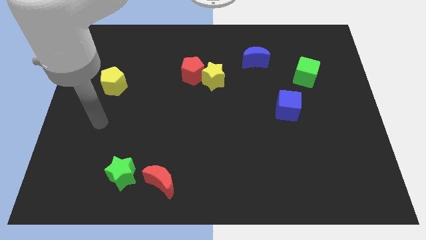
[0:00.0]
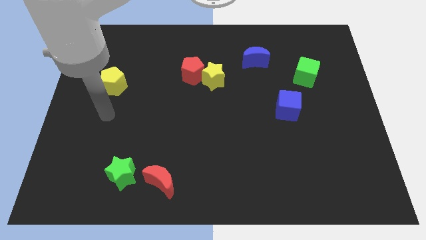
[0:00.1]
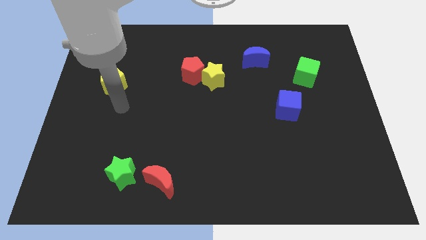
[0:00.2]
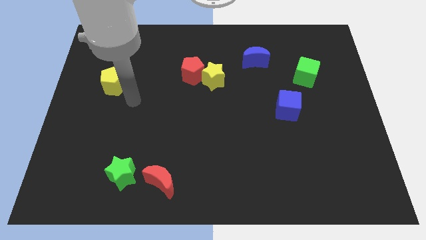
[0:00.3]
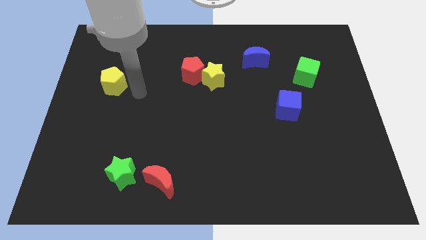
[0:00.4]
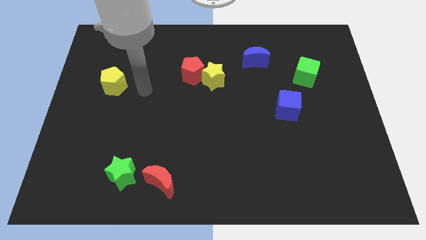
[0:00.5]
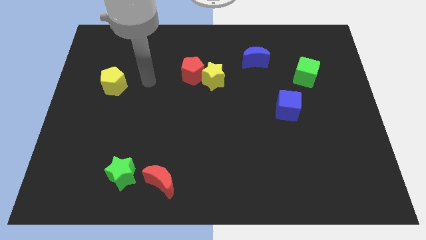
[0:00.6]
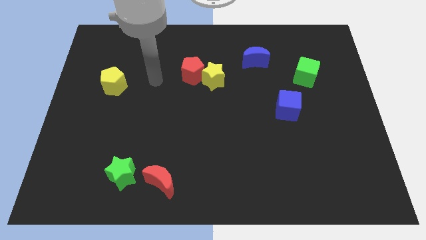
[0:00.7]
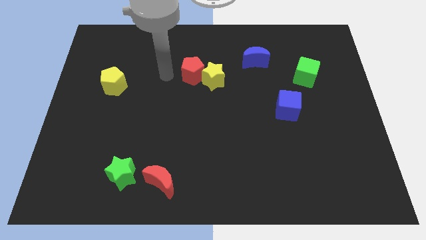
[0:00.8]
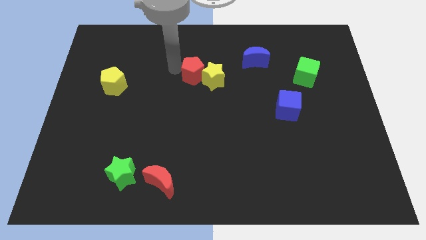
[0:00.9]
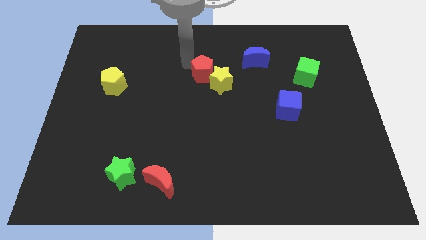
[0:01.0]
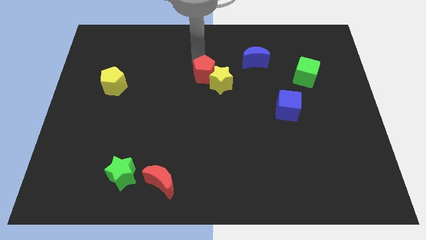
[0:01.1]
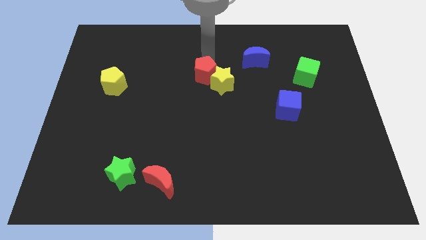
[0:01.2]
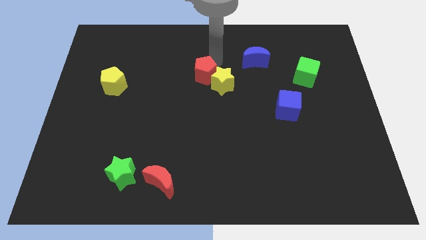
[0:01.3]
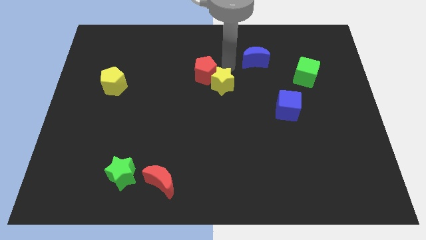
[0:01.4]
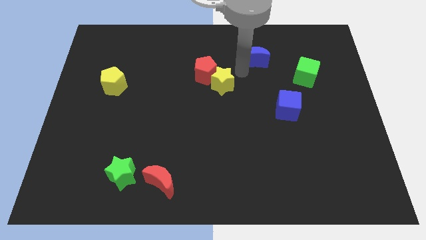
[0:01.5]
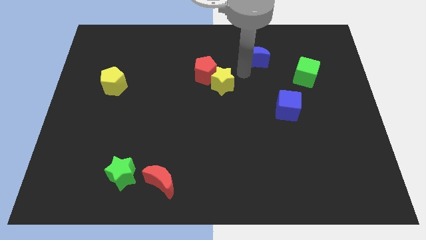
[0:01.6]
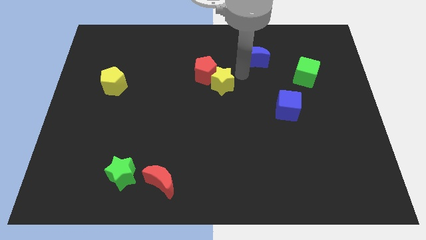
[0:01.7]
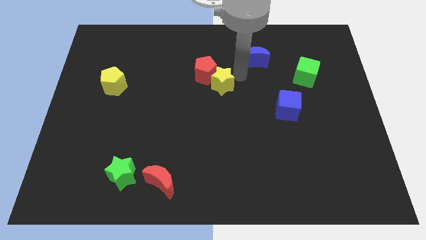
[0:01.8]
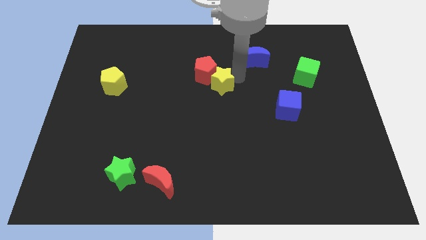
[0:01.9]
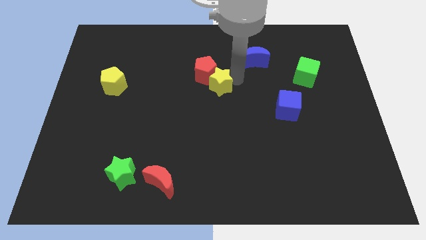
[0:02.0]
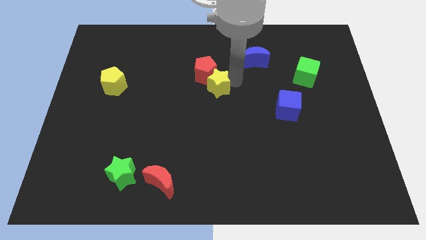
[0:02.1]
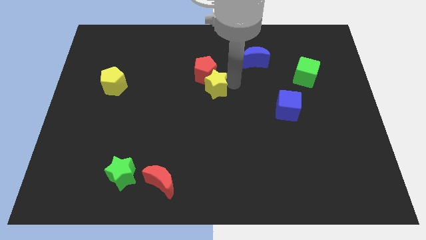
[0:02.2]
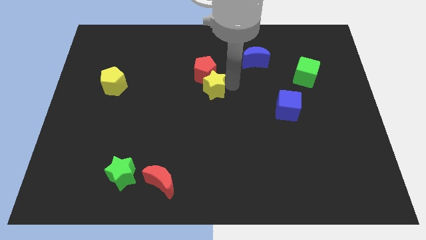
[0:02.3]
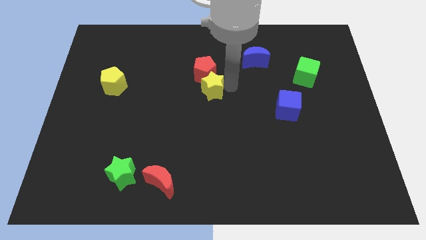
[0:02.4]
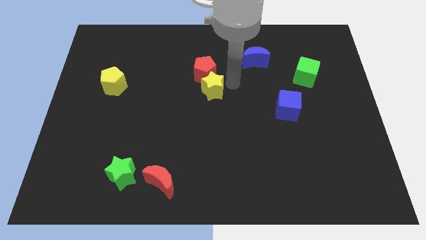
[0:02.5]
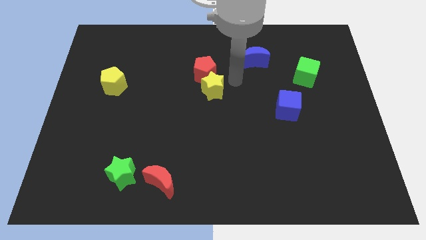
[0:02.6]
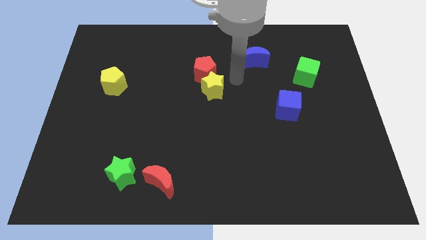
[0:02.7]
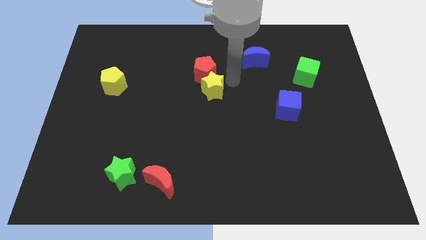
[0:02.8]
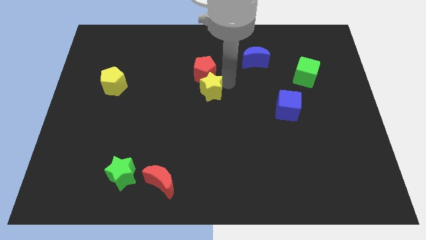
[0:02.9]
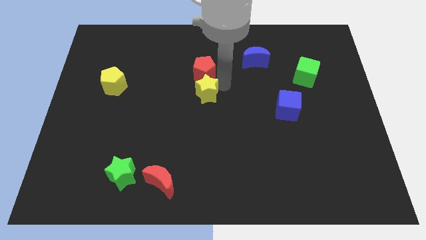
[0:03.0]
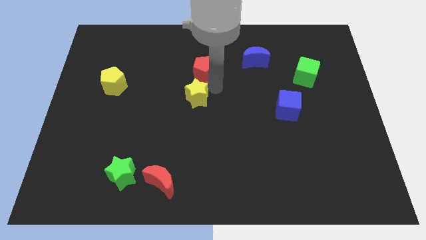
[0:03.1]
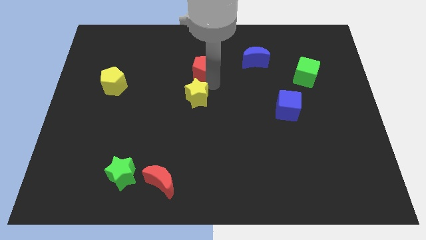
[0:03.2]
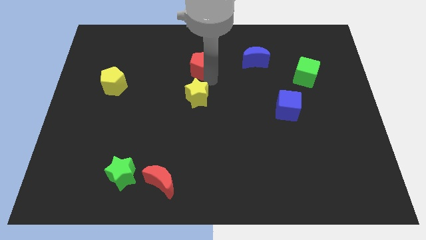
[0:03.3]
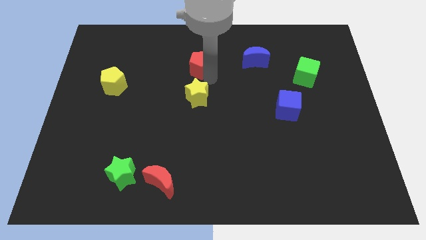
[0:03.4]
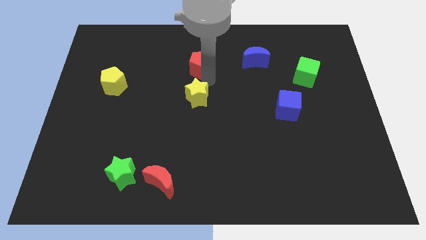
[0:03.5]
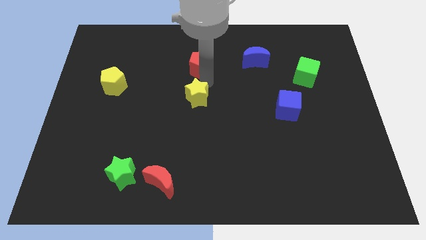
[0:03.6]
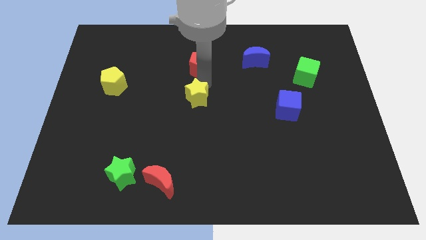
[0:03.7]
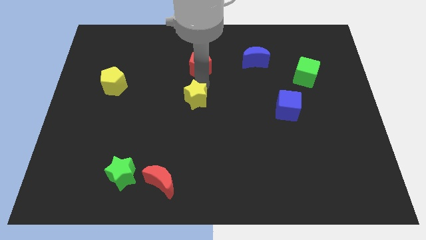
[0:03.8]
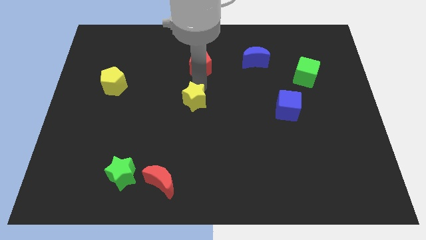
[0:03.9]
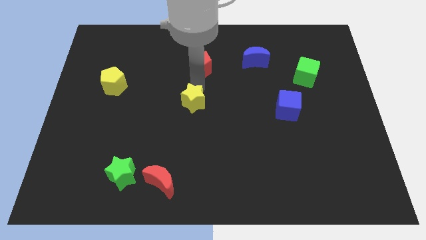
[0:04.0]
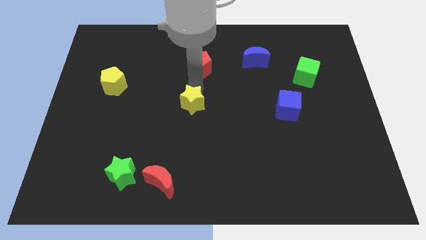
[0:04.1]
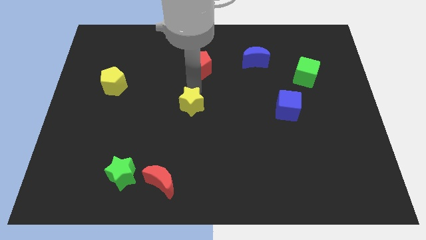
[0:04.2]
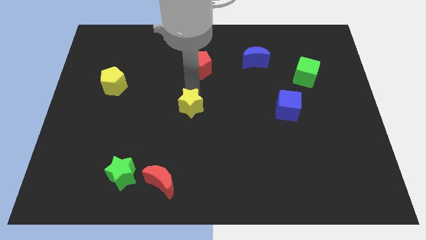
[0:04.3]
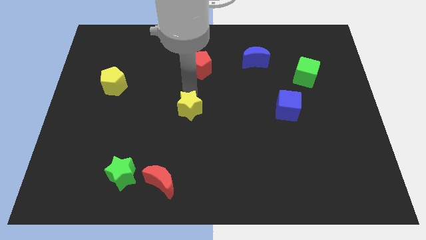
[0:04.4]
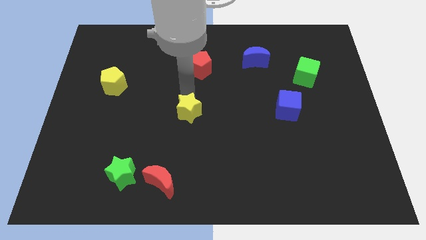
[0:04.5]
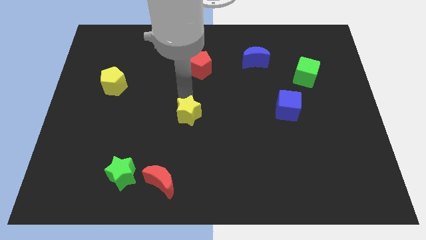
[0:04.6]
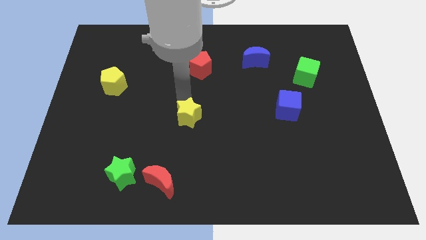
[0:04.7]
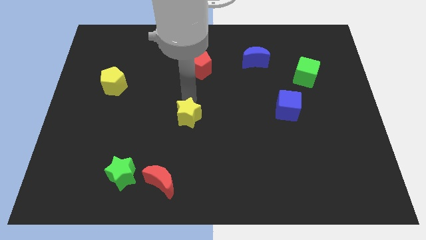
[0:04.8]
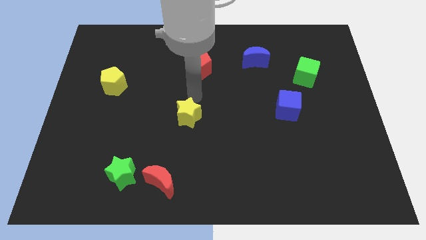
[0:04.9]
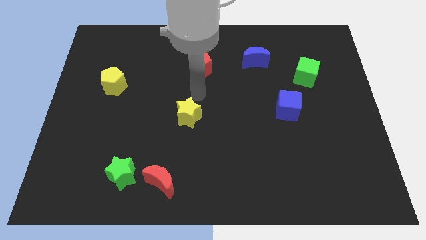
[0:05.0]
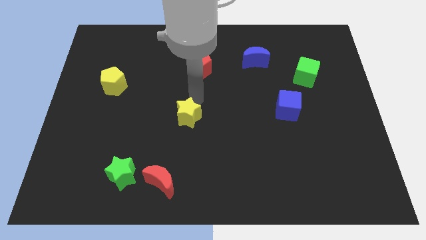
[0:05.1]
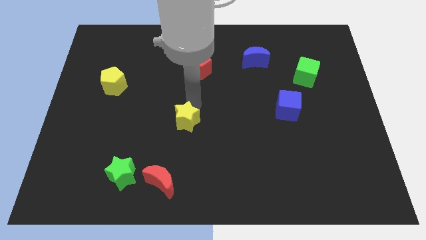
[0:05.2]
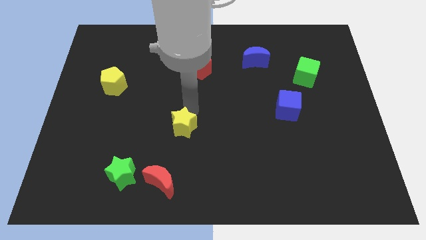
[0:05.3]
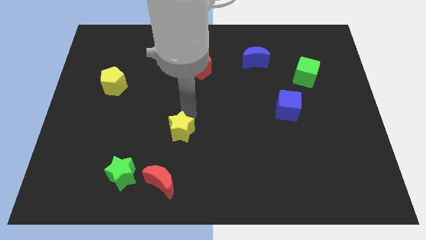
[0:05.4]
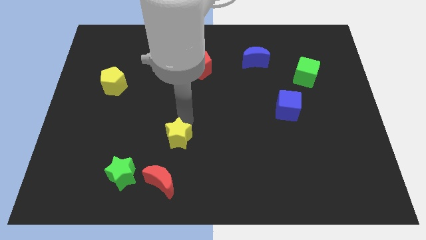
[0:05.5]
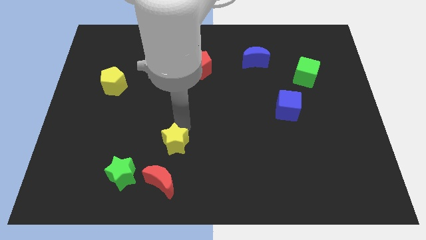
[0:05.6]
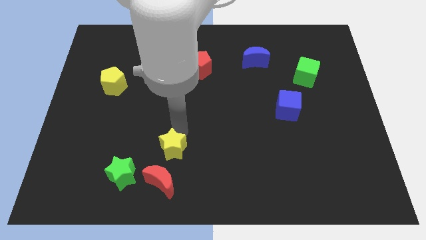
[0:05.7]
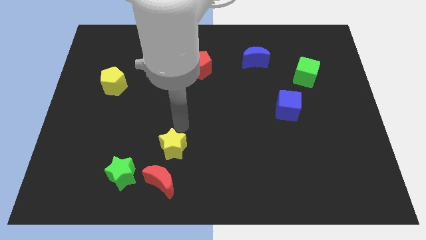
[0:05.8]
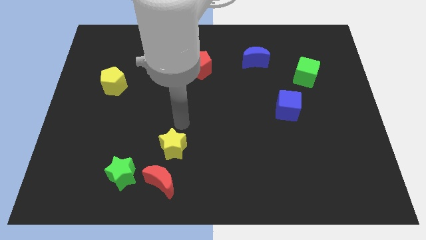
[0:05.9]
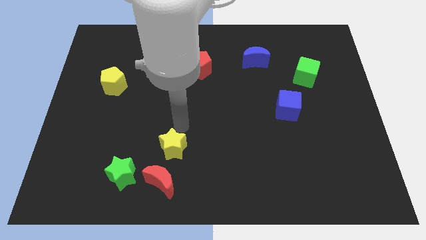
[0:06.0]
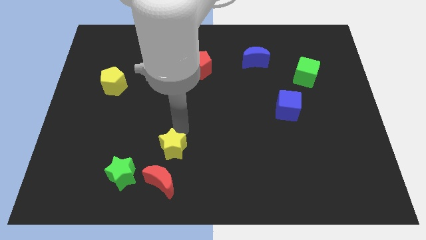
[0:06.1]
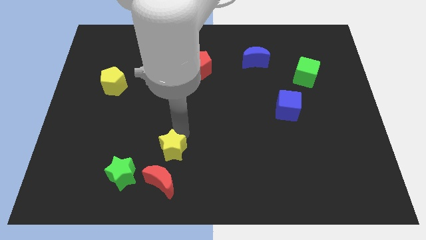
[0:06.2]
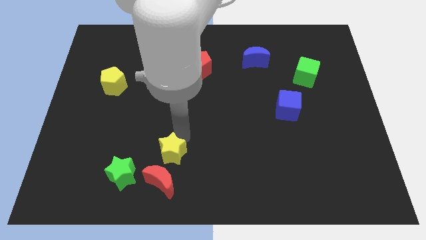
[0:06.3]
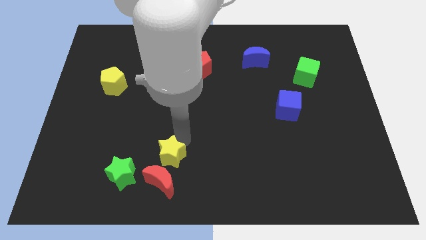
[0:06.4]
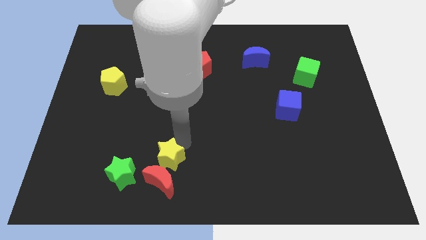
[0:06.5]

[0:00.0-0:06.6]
move the yellow star to the red moon

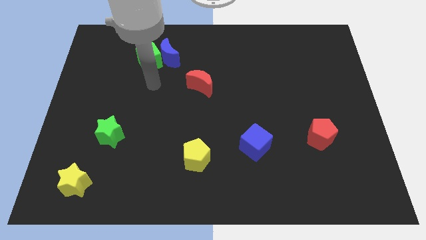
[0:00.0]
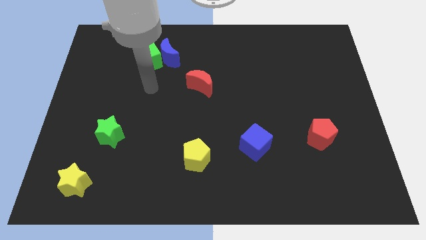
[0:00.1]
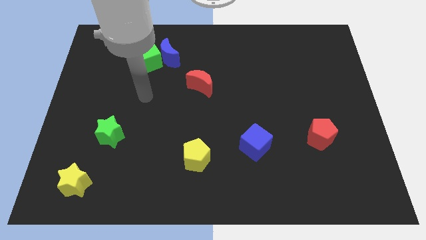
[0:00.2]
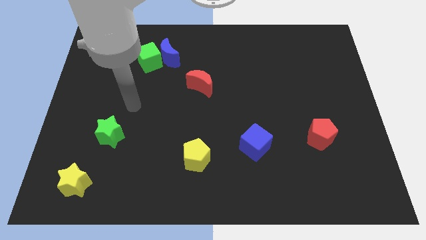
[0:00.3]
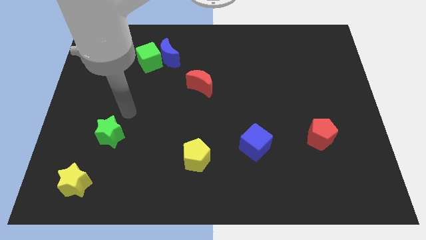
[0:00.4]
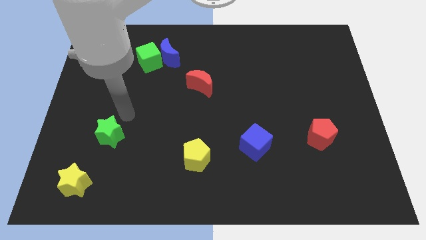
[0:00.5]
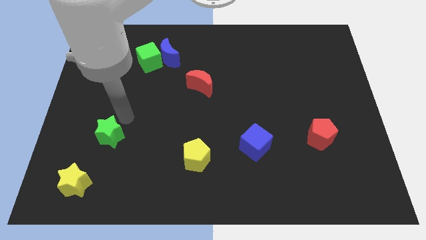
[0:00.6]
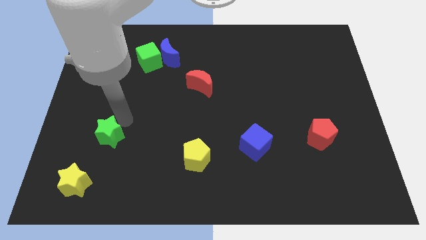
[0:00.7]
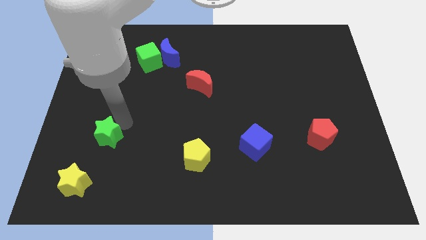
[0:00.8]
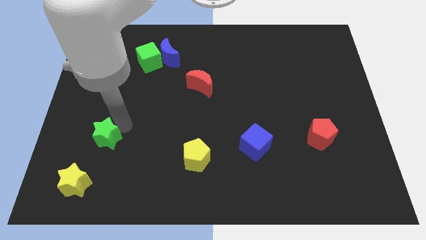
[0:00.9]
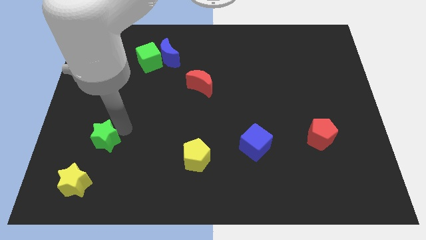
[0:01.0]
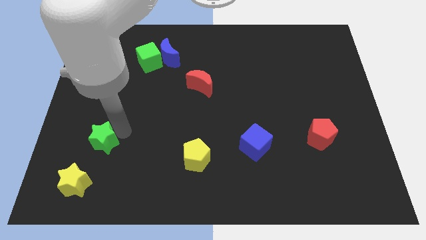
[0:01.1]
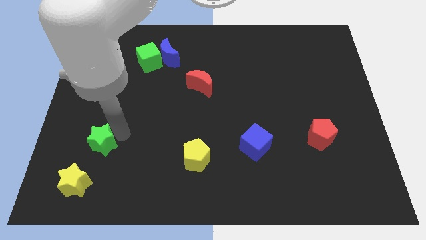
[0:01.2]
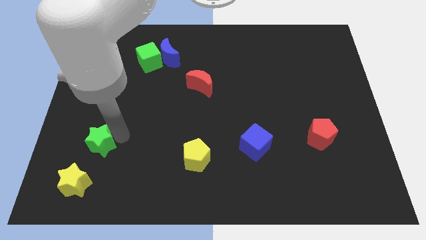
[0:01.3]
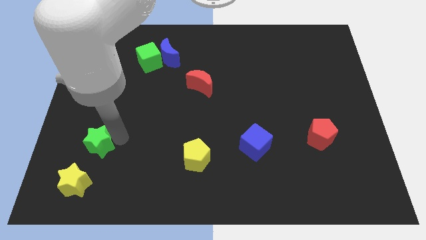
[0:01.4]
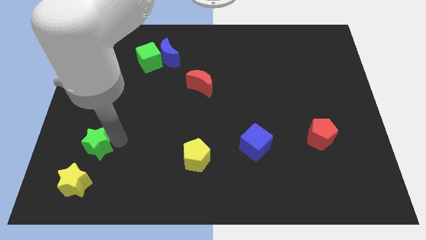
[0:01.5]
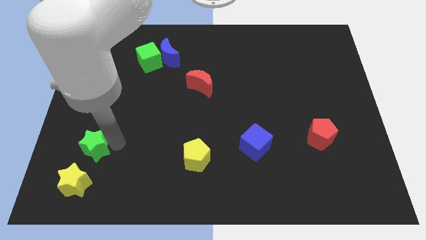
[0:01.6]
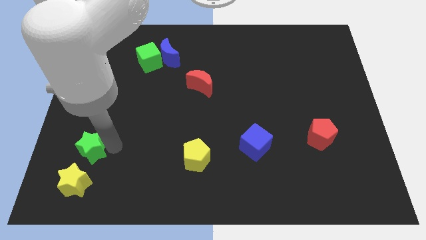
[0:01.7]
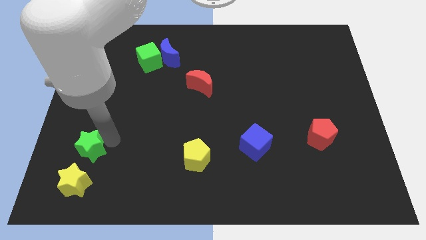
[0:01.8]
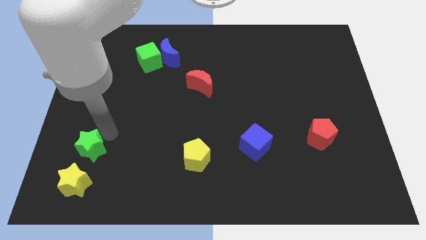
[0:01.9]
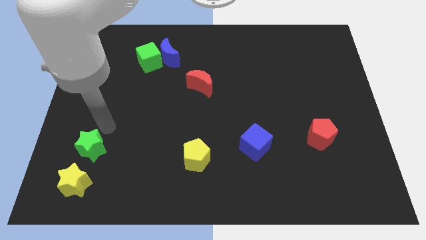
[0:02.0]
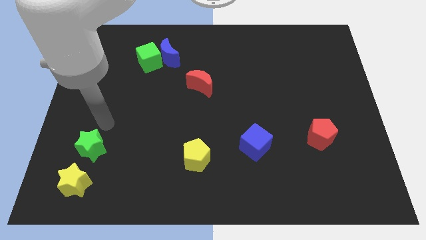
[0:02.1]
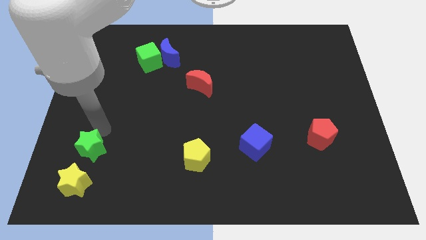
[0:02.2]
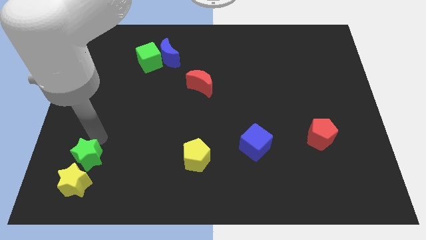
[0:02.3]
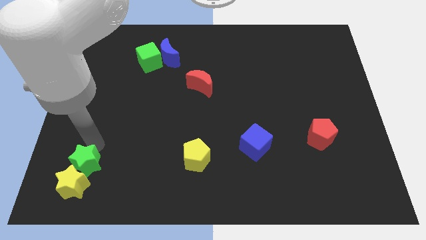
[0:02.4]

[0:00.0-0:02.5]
move the green star towards the yellow star
